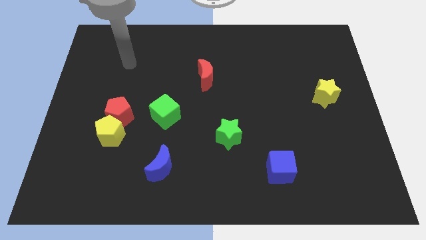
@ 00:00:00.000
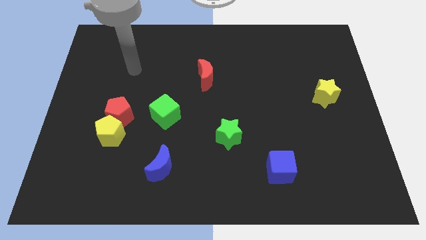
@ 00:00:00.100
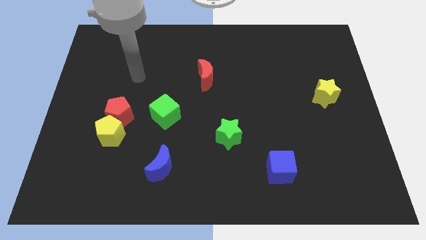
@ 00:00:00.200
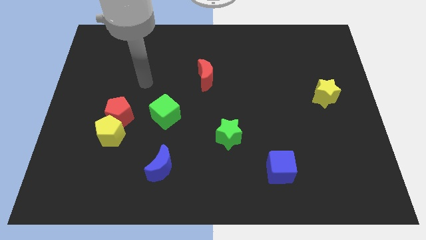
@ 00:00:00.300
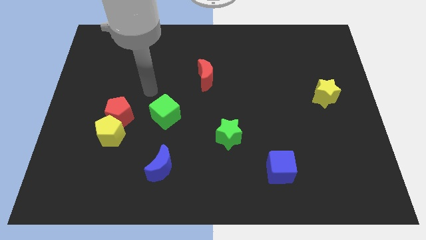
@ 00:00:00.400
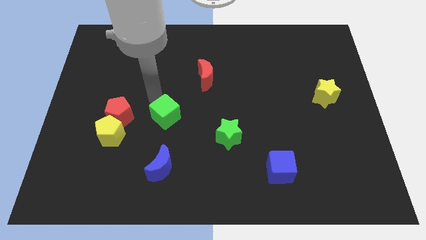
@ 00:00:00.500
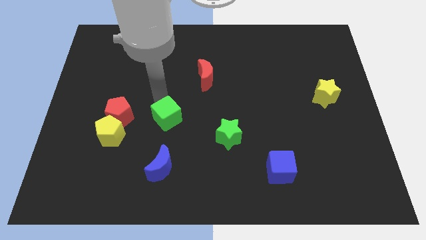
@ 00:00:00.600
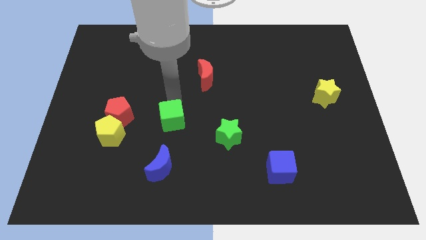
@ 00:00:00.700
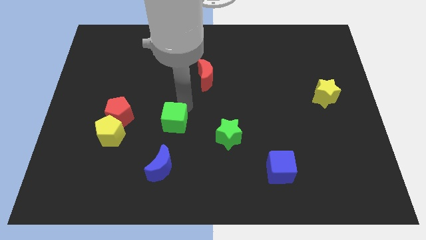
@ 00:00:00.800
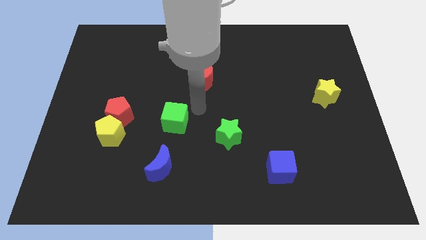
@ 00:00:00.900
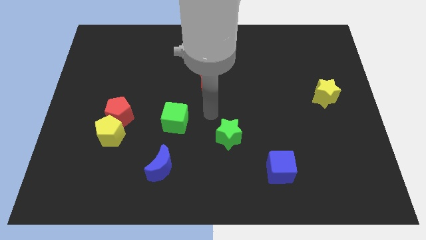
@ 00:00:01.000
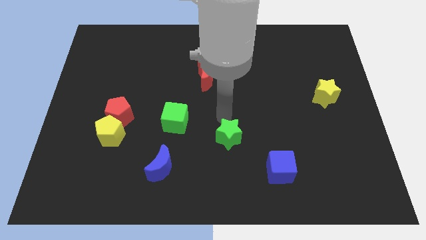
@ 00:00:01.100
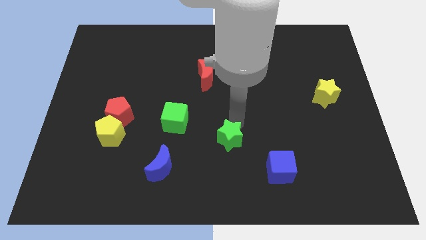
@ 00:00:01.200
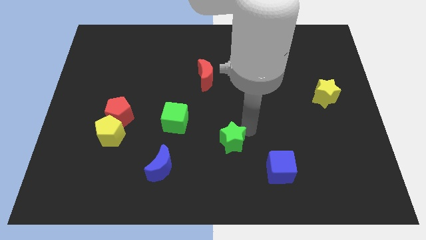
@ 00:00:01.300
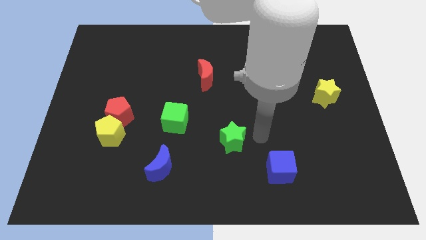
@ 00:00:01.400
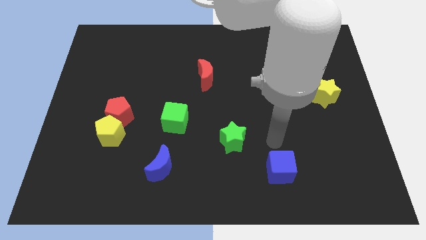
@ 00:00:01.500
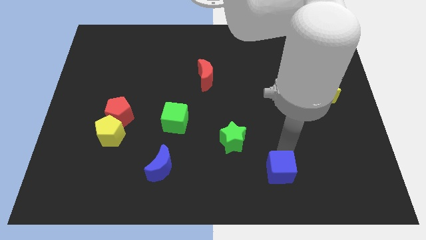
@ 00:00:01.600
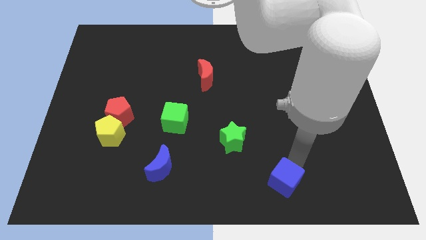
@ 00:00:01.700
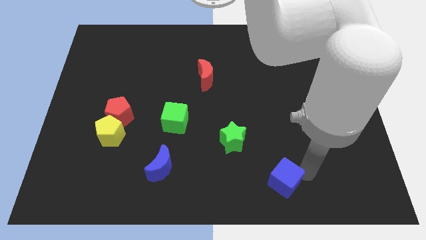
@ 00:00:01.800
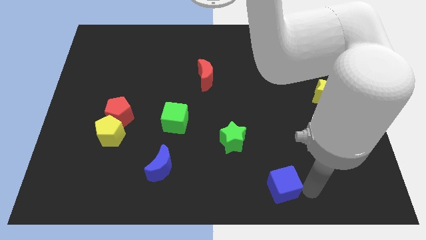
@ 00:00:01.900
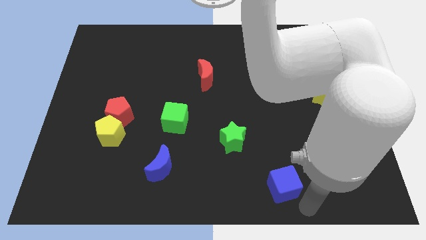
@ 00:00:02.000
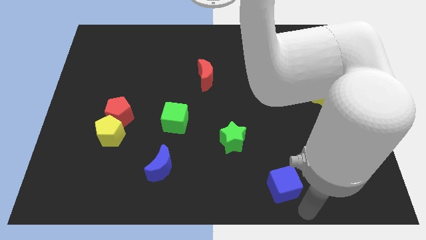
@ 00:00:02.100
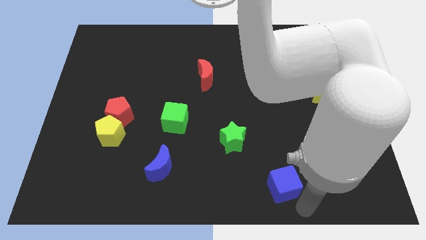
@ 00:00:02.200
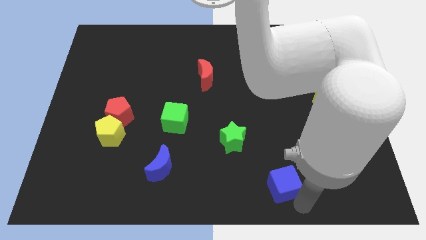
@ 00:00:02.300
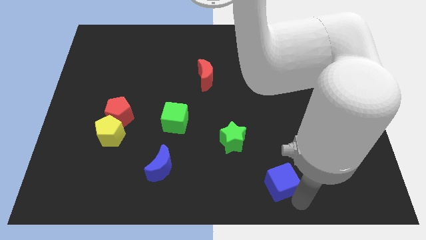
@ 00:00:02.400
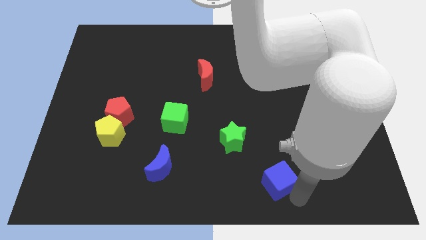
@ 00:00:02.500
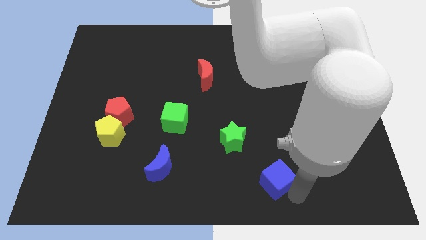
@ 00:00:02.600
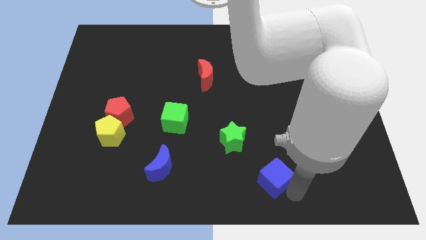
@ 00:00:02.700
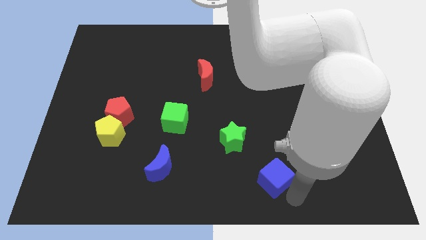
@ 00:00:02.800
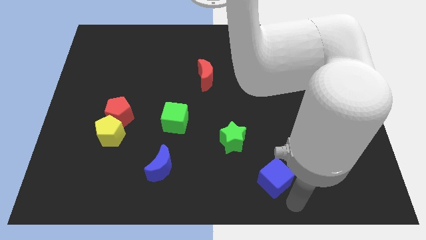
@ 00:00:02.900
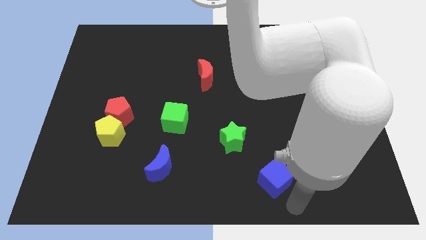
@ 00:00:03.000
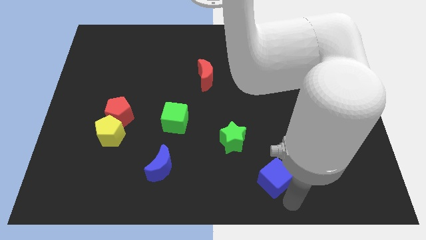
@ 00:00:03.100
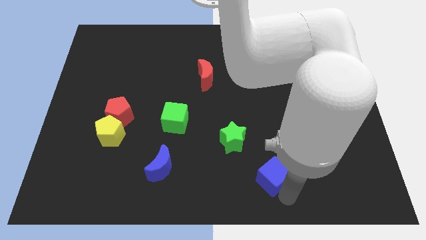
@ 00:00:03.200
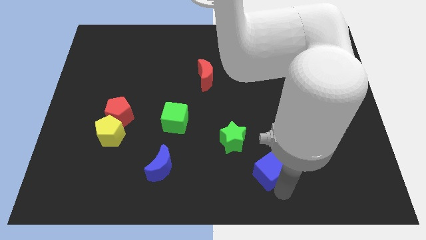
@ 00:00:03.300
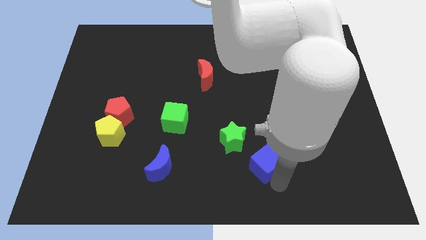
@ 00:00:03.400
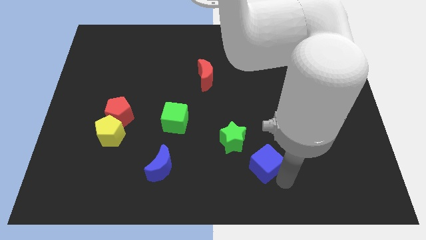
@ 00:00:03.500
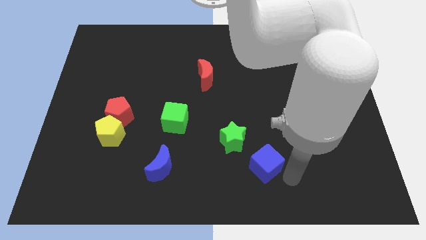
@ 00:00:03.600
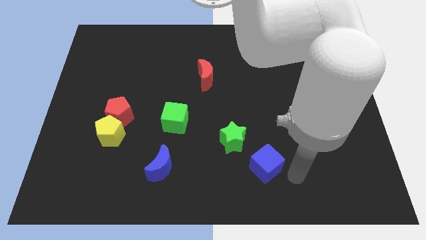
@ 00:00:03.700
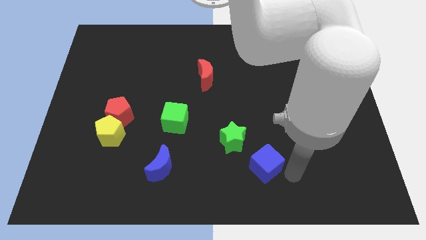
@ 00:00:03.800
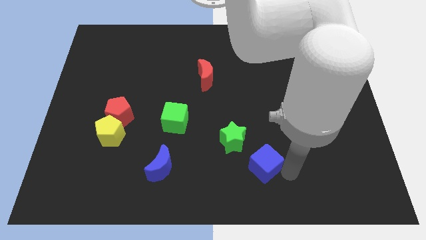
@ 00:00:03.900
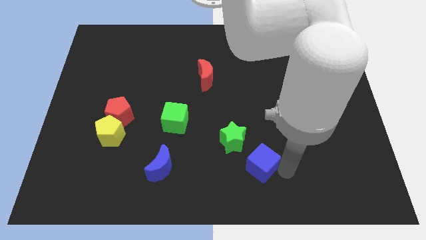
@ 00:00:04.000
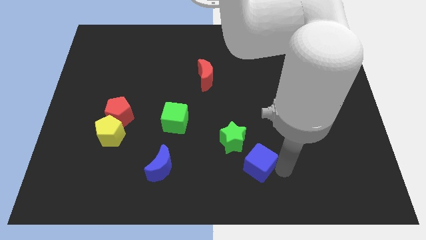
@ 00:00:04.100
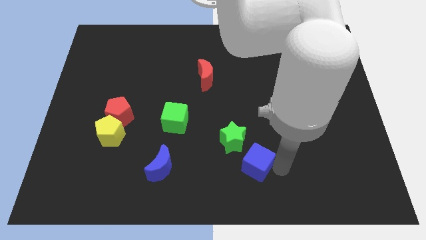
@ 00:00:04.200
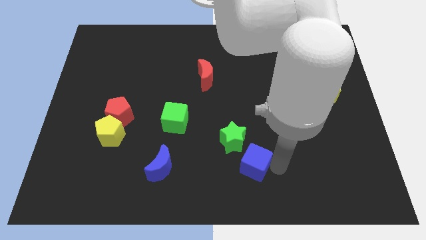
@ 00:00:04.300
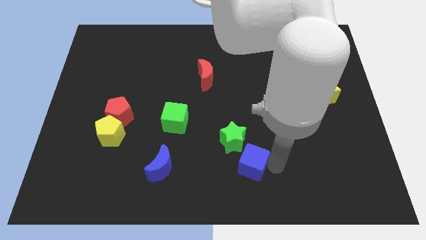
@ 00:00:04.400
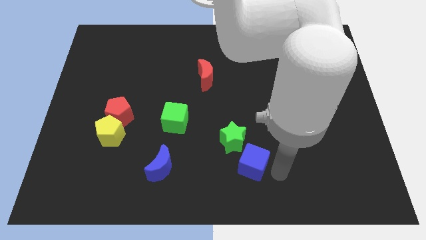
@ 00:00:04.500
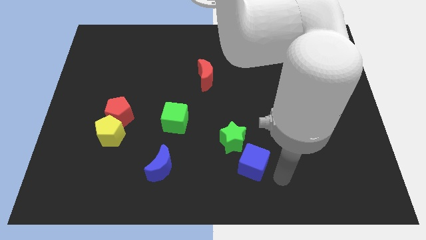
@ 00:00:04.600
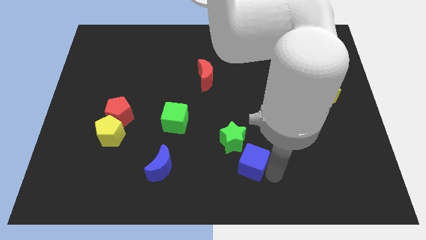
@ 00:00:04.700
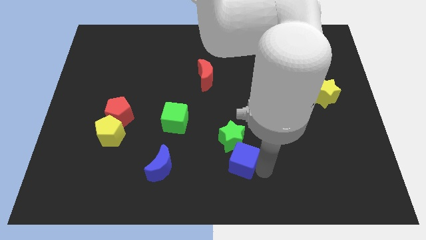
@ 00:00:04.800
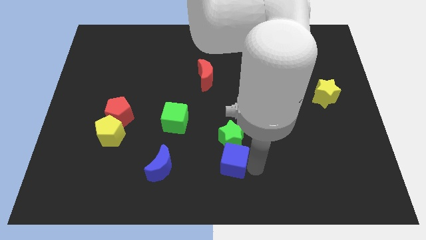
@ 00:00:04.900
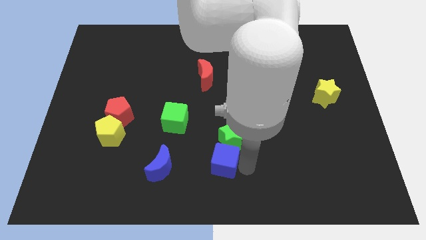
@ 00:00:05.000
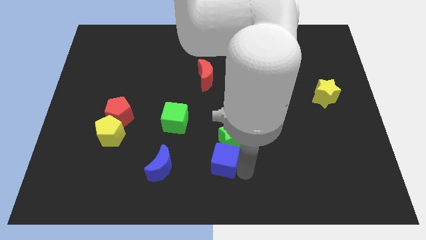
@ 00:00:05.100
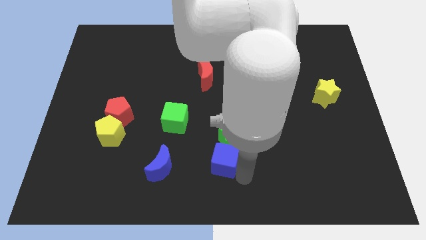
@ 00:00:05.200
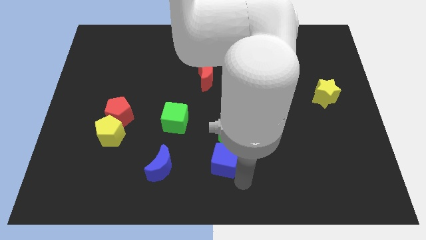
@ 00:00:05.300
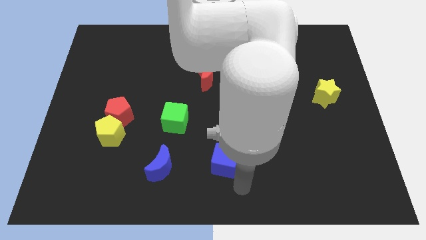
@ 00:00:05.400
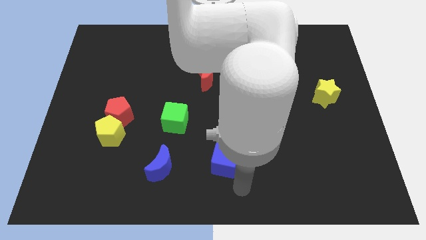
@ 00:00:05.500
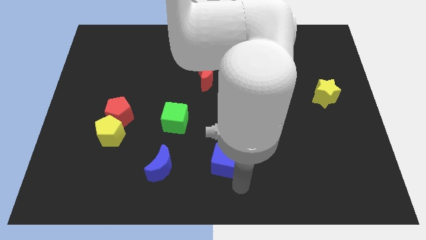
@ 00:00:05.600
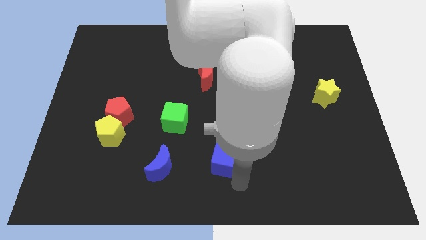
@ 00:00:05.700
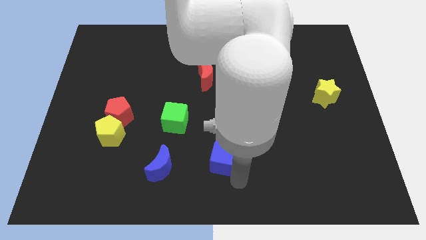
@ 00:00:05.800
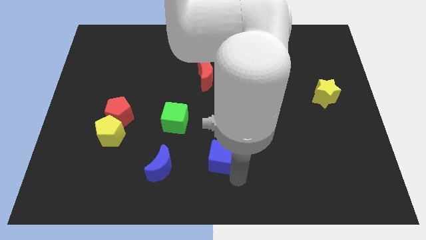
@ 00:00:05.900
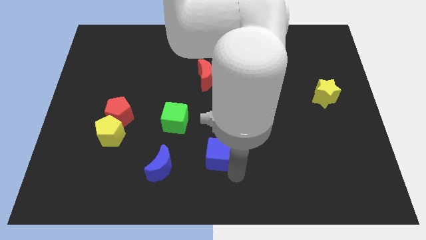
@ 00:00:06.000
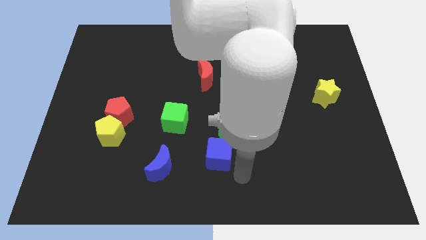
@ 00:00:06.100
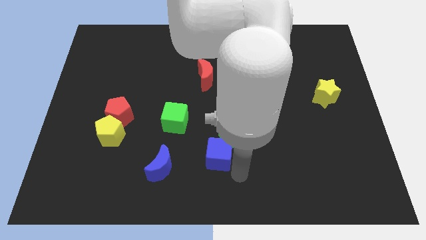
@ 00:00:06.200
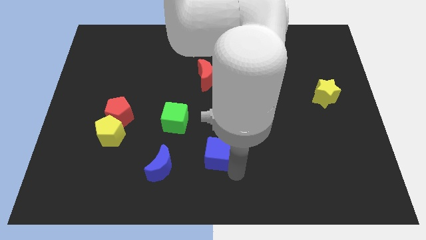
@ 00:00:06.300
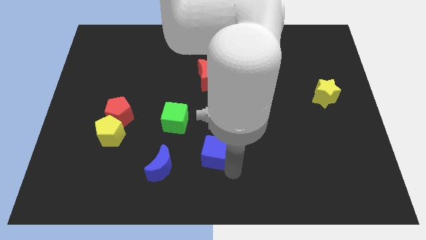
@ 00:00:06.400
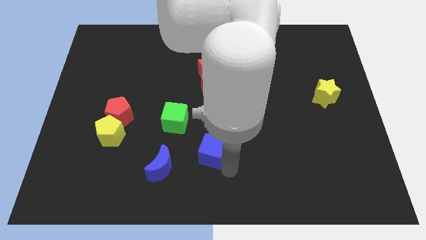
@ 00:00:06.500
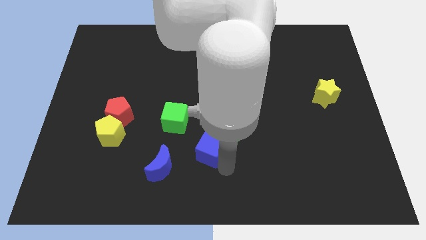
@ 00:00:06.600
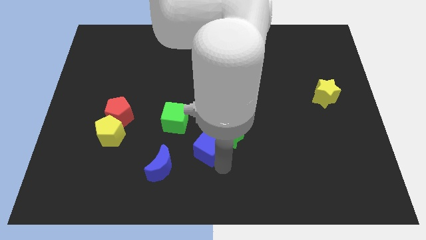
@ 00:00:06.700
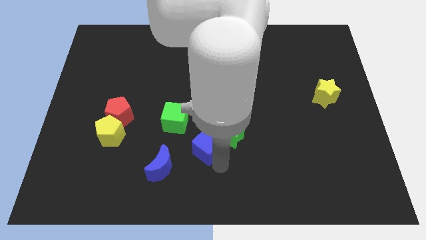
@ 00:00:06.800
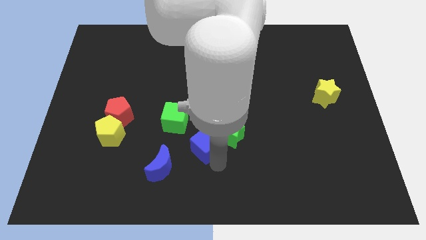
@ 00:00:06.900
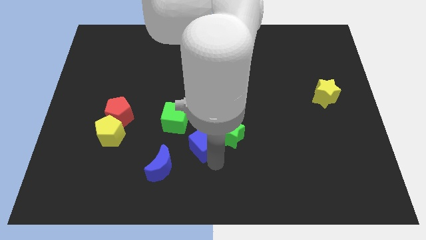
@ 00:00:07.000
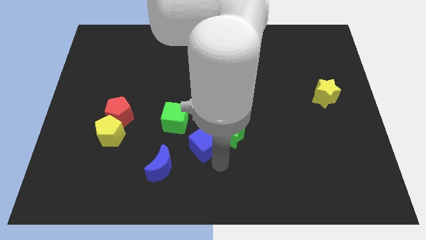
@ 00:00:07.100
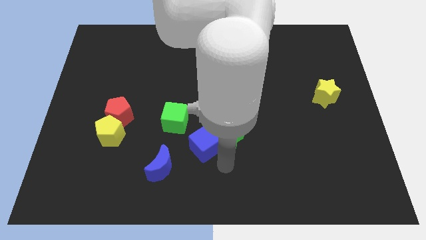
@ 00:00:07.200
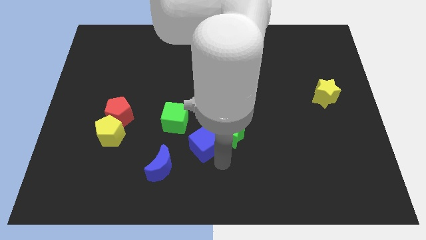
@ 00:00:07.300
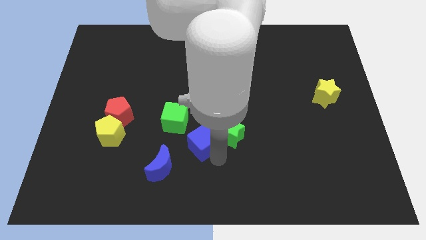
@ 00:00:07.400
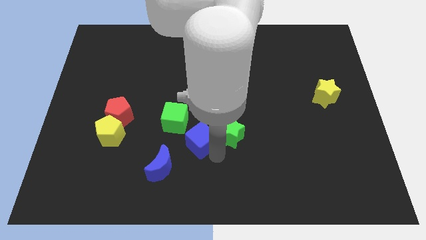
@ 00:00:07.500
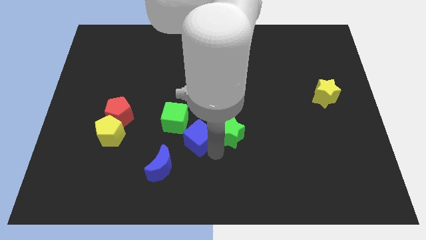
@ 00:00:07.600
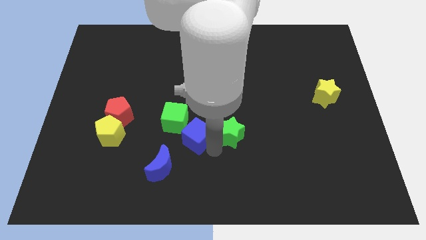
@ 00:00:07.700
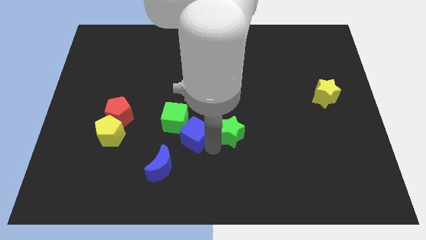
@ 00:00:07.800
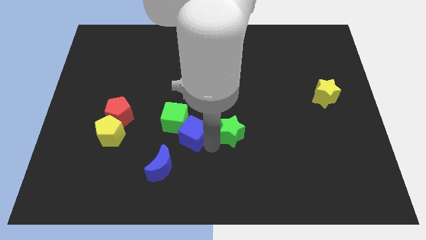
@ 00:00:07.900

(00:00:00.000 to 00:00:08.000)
put the blue cube close to the green cube
